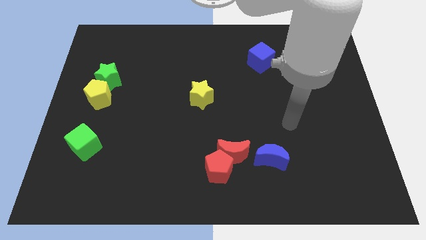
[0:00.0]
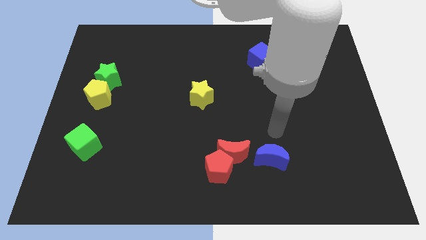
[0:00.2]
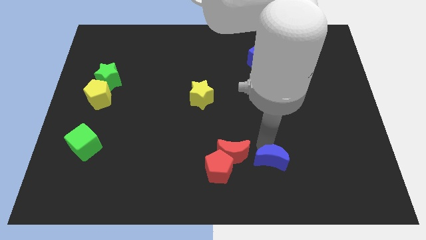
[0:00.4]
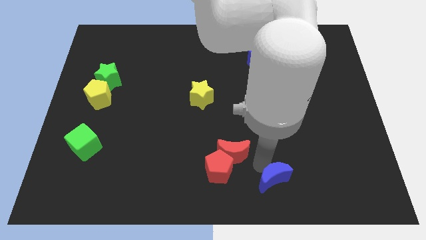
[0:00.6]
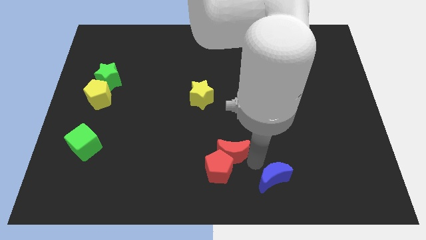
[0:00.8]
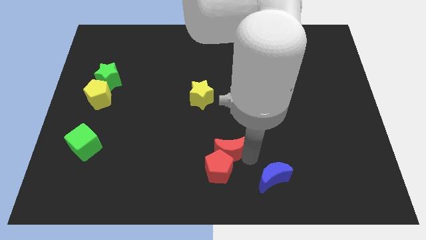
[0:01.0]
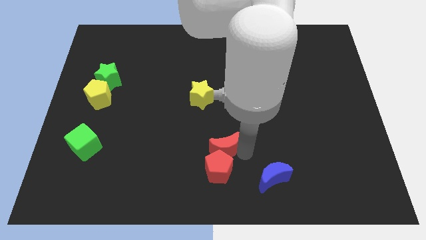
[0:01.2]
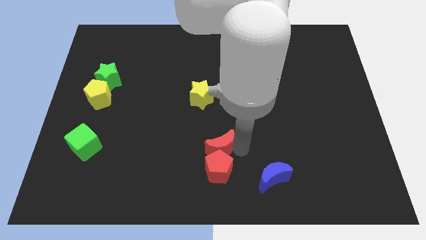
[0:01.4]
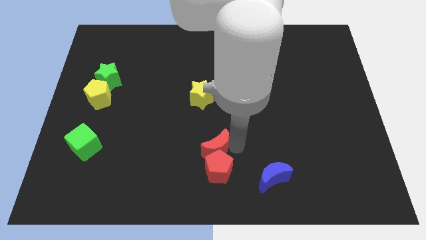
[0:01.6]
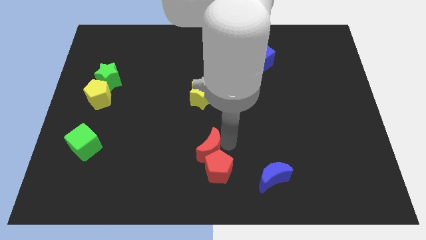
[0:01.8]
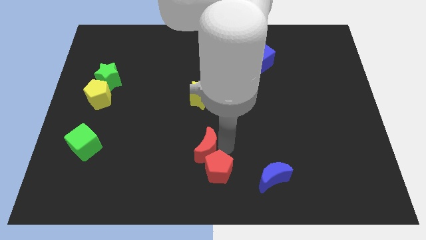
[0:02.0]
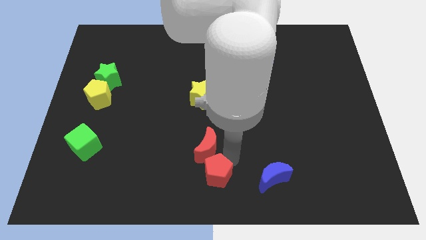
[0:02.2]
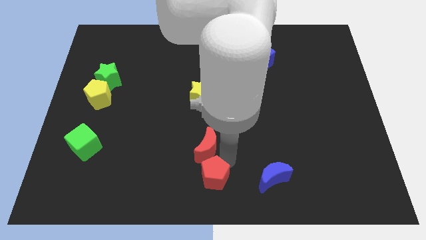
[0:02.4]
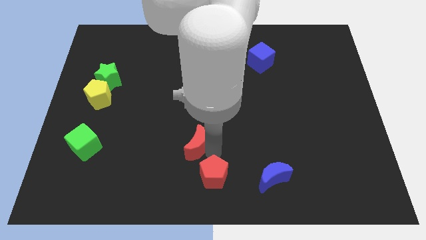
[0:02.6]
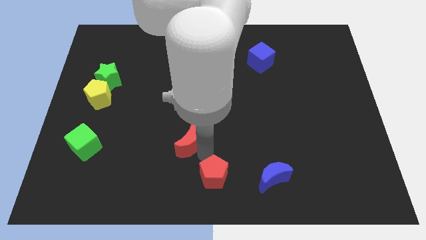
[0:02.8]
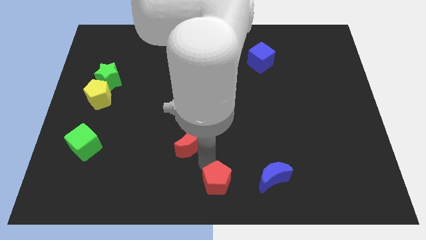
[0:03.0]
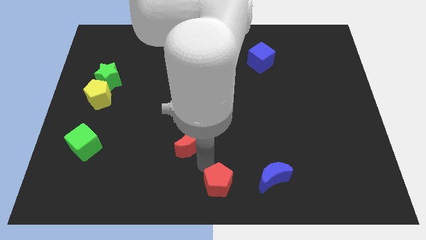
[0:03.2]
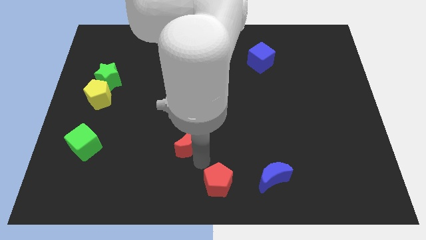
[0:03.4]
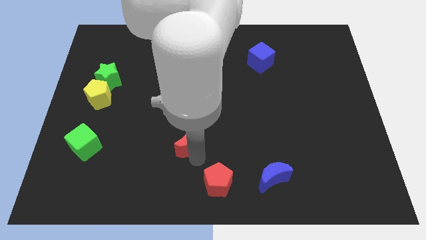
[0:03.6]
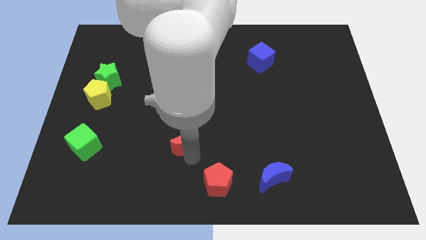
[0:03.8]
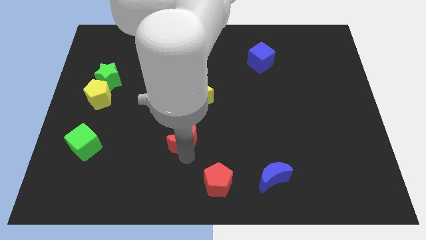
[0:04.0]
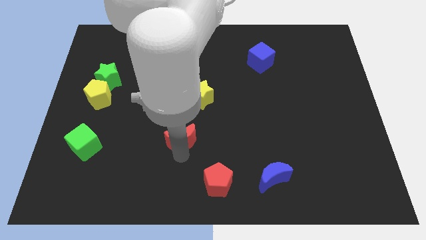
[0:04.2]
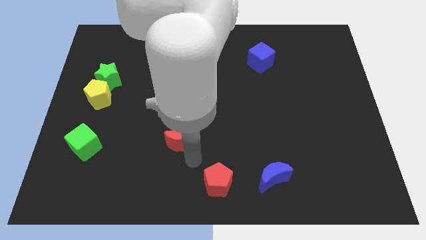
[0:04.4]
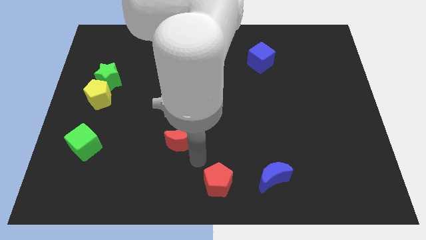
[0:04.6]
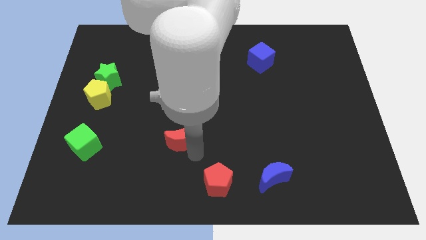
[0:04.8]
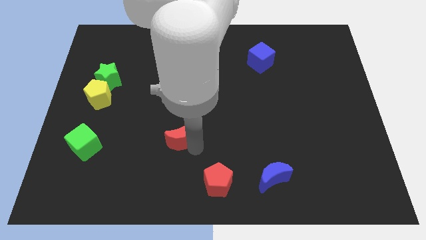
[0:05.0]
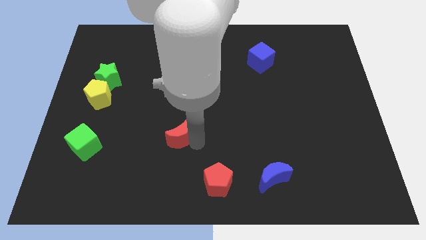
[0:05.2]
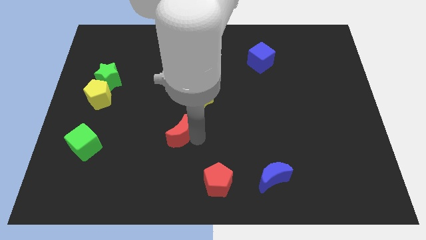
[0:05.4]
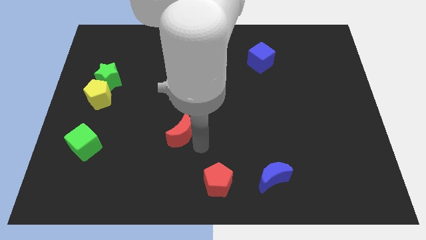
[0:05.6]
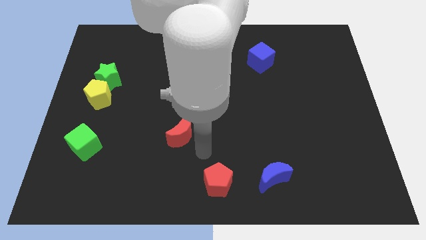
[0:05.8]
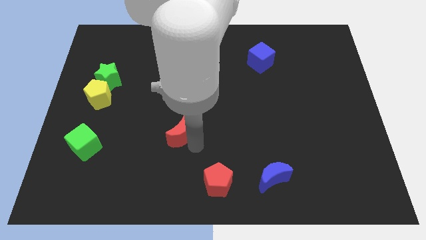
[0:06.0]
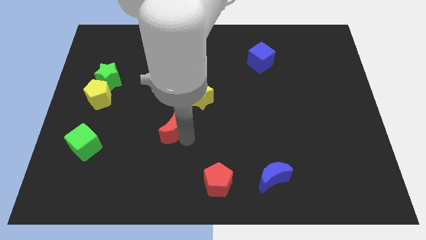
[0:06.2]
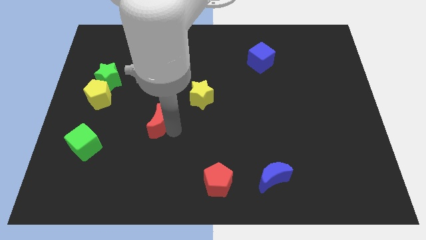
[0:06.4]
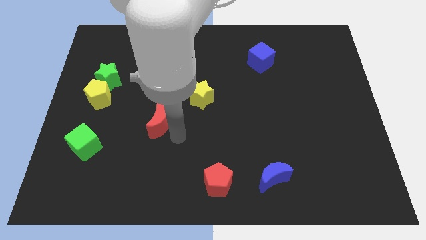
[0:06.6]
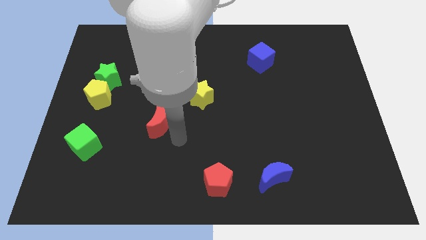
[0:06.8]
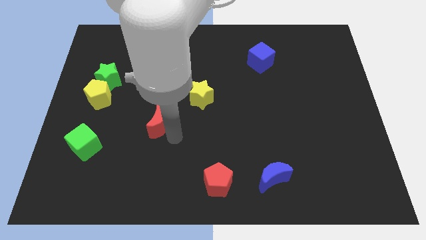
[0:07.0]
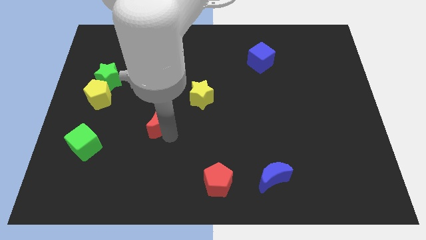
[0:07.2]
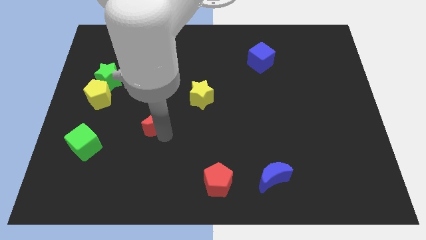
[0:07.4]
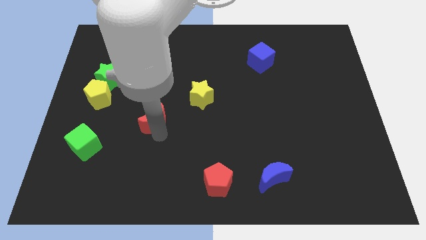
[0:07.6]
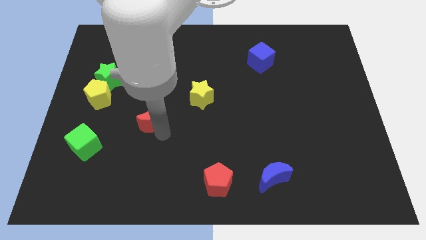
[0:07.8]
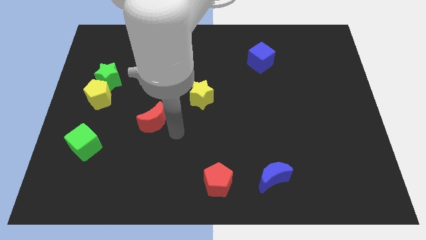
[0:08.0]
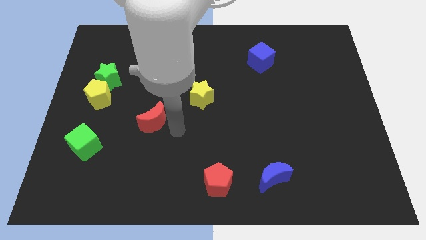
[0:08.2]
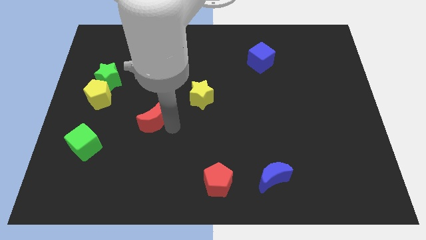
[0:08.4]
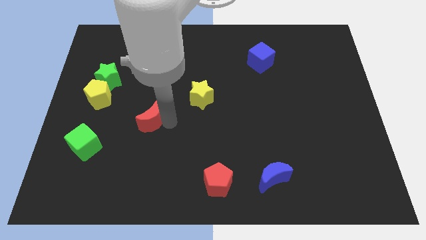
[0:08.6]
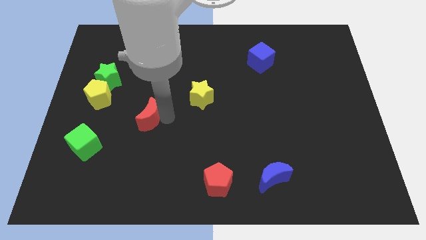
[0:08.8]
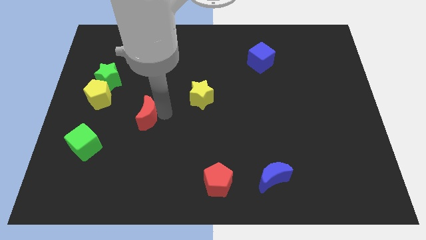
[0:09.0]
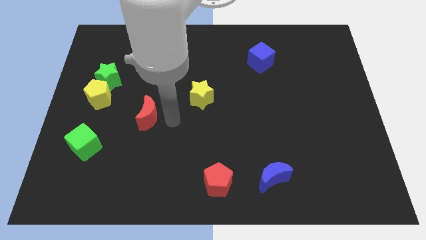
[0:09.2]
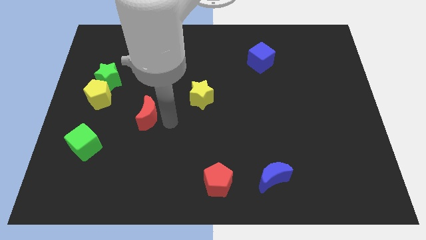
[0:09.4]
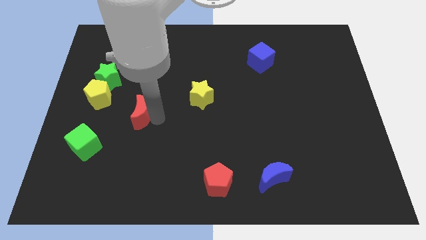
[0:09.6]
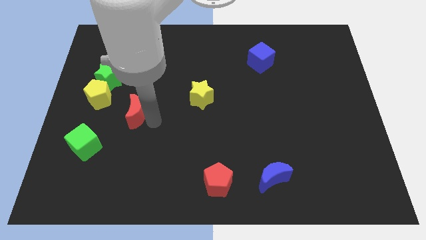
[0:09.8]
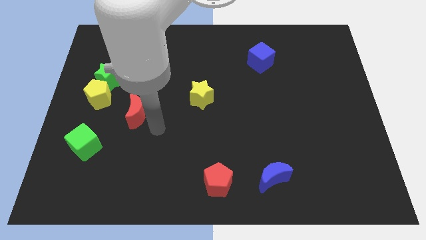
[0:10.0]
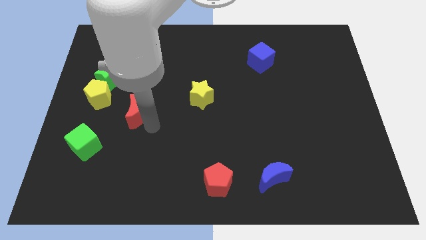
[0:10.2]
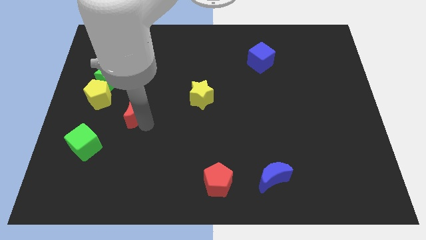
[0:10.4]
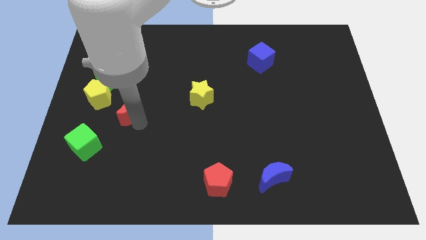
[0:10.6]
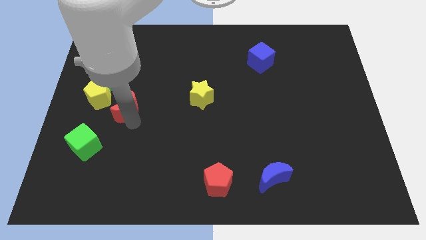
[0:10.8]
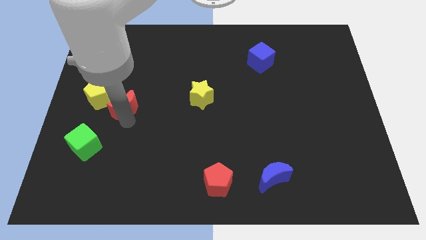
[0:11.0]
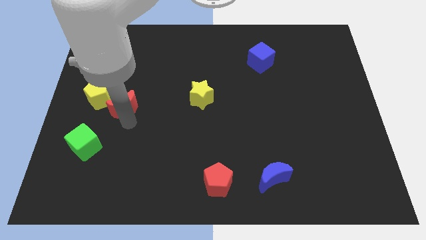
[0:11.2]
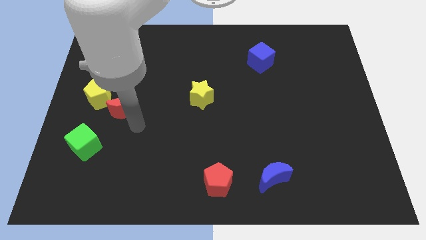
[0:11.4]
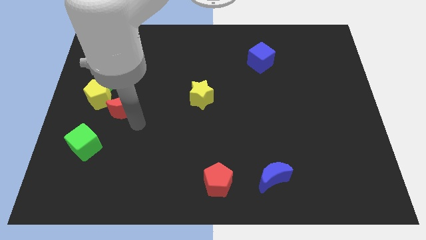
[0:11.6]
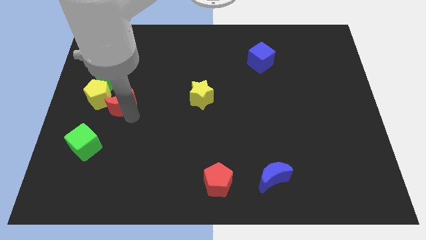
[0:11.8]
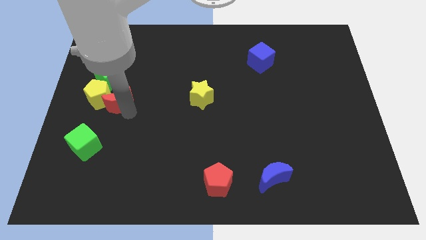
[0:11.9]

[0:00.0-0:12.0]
move the red moon towards the yellow pentagon

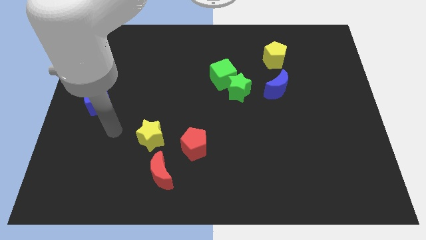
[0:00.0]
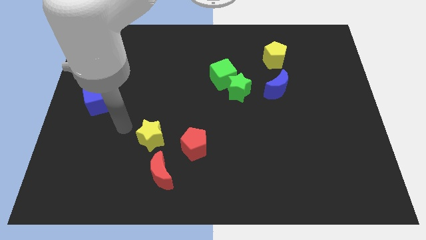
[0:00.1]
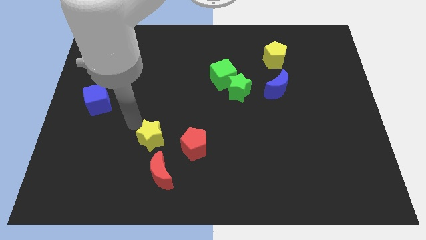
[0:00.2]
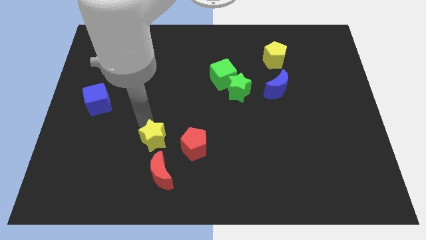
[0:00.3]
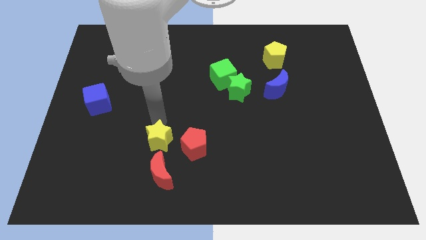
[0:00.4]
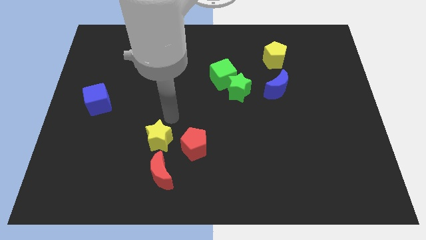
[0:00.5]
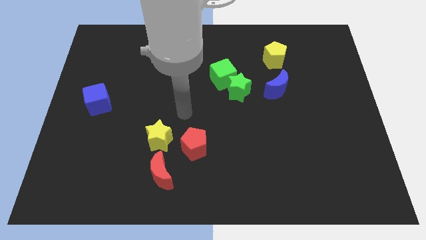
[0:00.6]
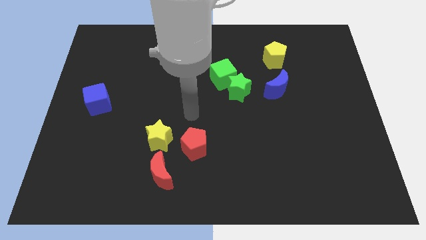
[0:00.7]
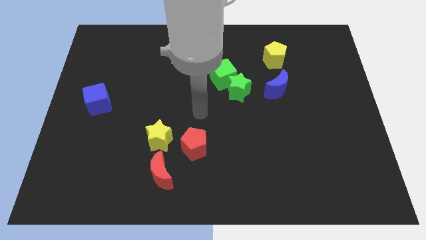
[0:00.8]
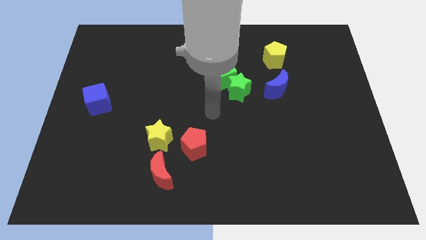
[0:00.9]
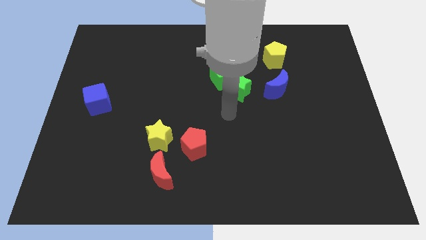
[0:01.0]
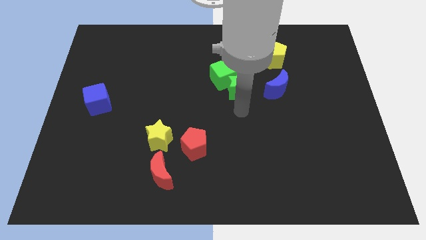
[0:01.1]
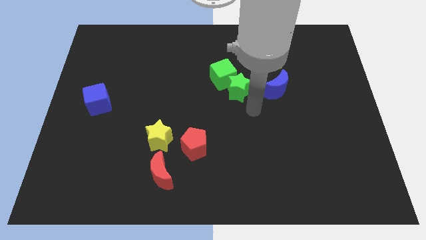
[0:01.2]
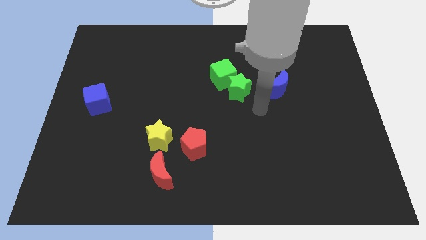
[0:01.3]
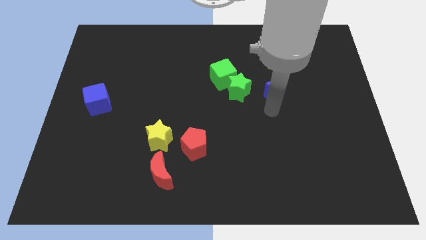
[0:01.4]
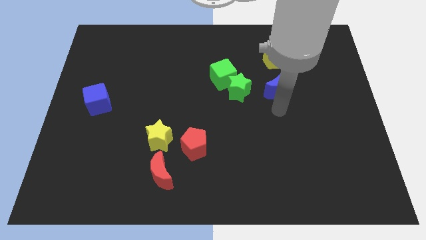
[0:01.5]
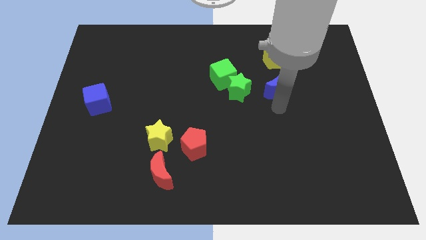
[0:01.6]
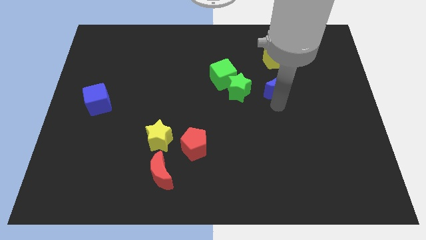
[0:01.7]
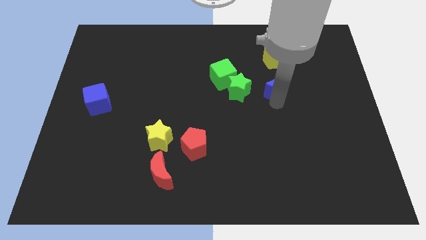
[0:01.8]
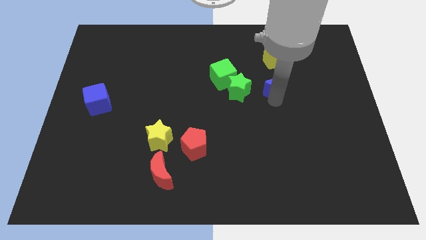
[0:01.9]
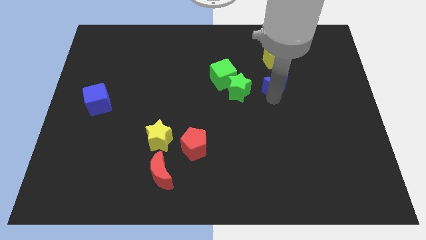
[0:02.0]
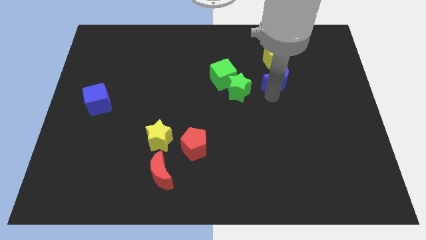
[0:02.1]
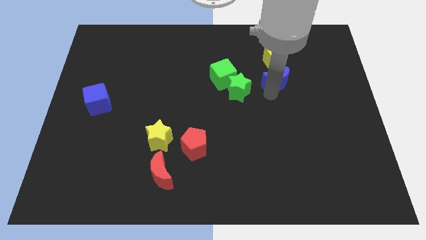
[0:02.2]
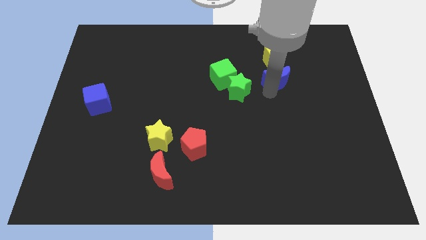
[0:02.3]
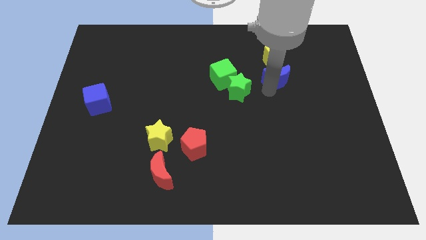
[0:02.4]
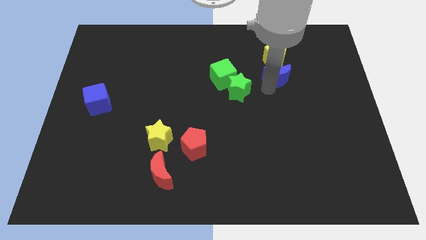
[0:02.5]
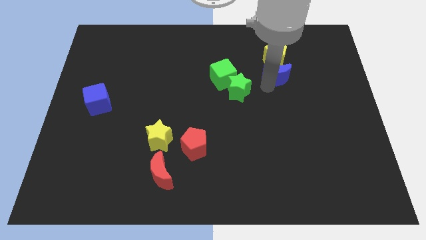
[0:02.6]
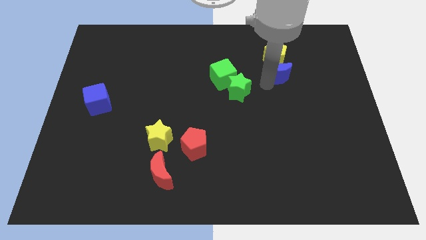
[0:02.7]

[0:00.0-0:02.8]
put the blue moon close to the yellow pentagon
